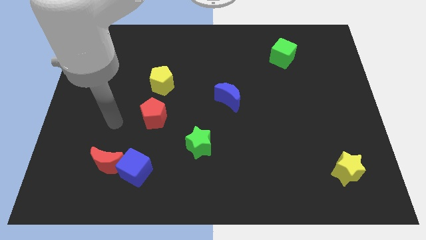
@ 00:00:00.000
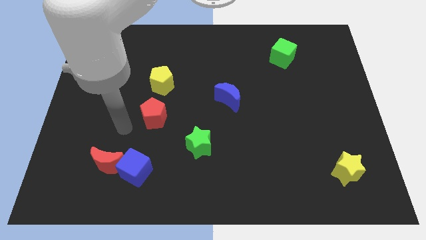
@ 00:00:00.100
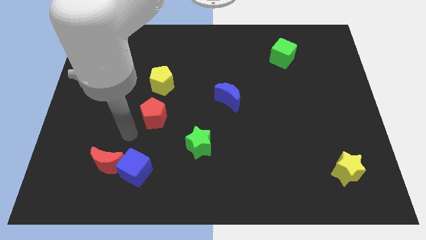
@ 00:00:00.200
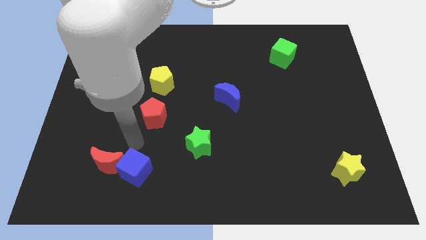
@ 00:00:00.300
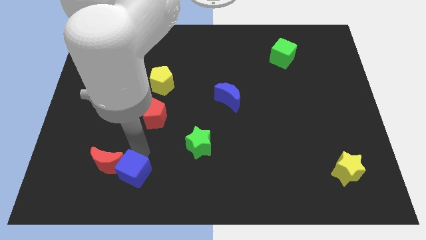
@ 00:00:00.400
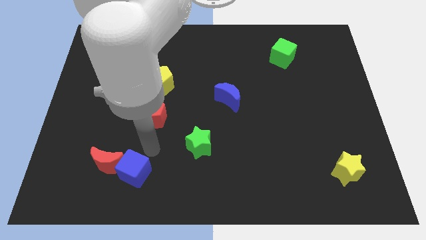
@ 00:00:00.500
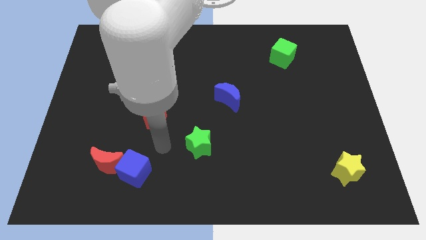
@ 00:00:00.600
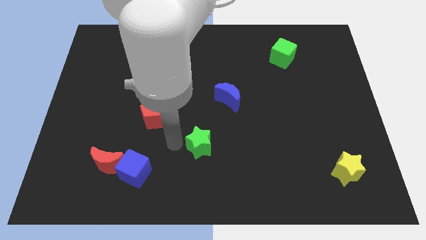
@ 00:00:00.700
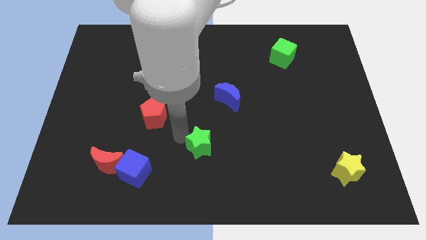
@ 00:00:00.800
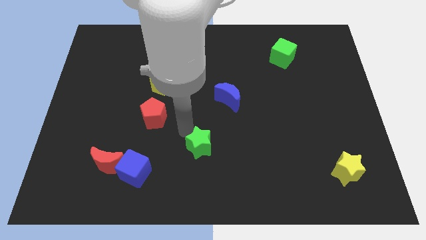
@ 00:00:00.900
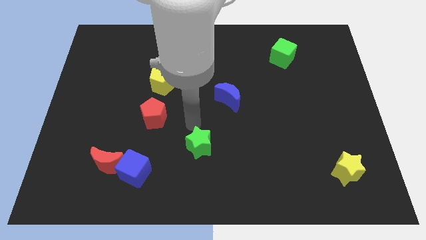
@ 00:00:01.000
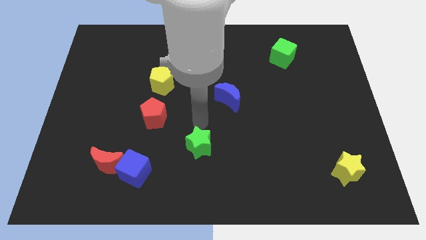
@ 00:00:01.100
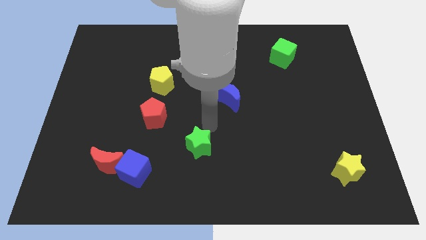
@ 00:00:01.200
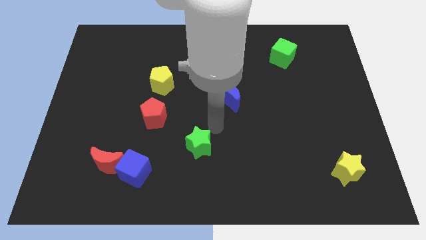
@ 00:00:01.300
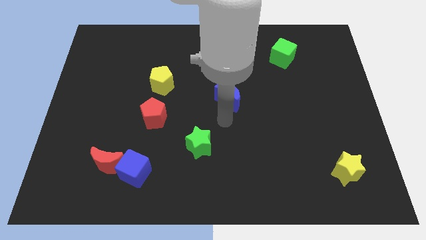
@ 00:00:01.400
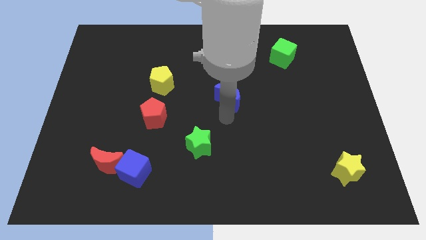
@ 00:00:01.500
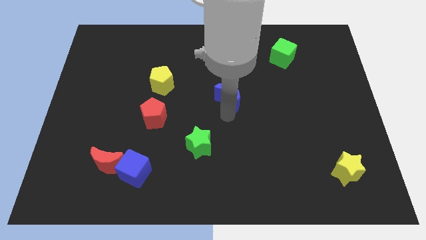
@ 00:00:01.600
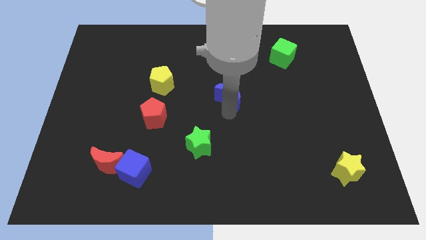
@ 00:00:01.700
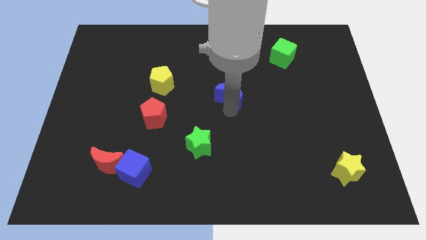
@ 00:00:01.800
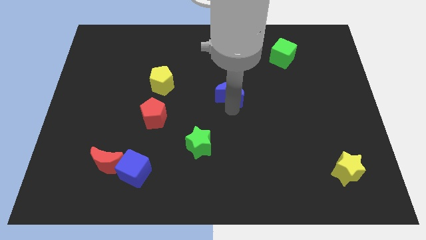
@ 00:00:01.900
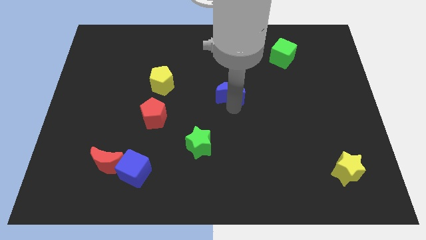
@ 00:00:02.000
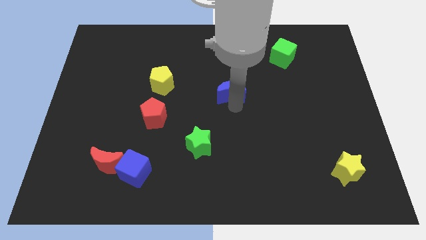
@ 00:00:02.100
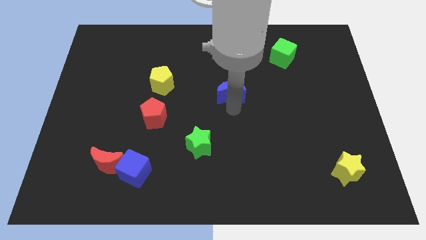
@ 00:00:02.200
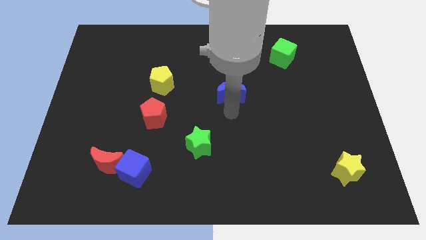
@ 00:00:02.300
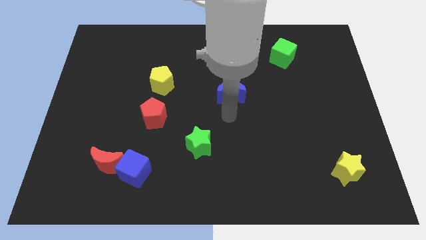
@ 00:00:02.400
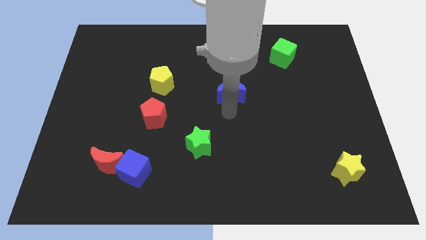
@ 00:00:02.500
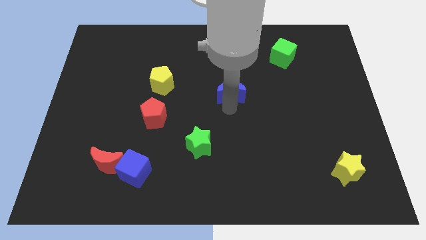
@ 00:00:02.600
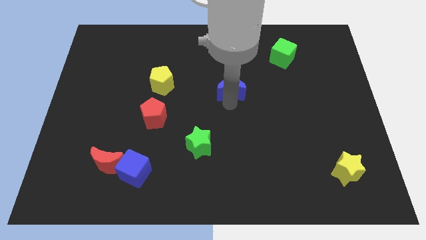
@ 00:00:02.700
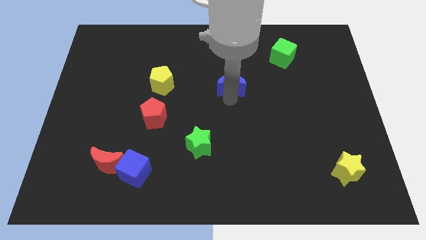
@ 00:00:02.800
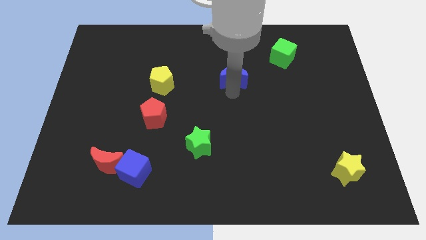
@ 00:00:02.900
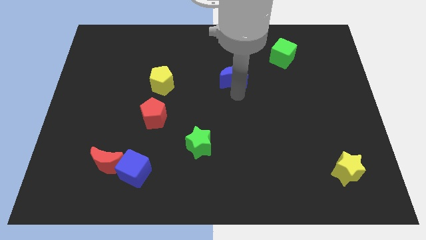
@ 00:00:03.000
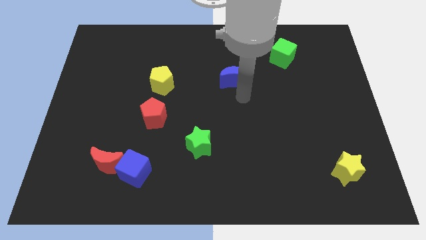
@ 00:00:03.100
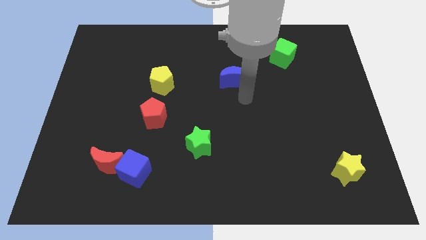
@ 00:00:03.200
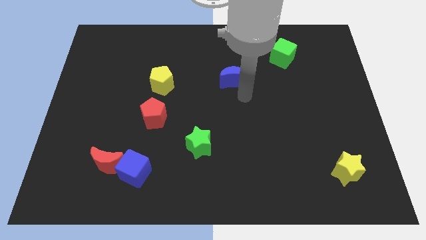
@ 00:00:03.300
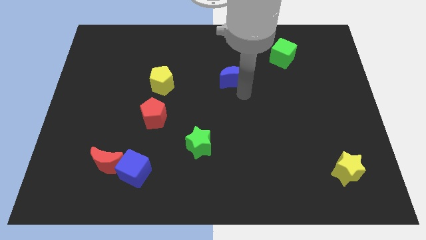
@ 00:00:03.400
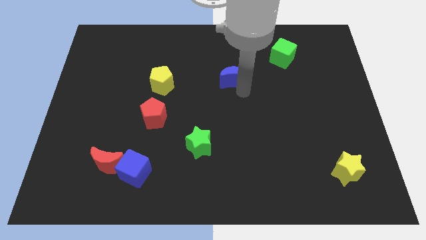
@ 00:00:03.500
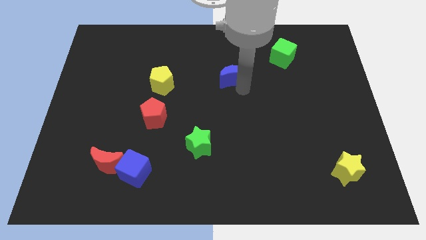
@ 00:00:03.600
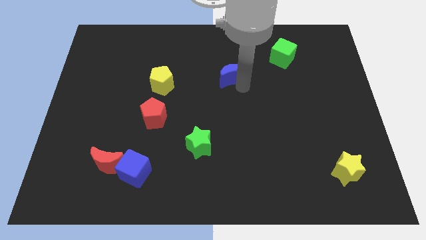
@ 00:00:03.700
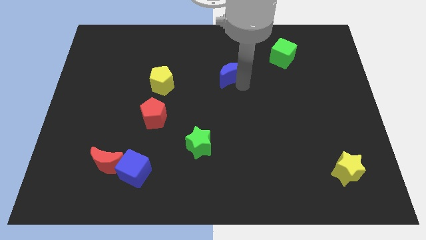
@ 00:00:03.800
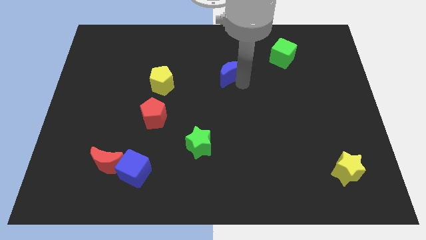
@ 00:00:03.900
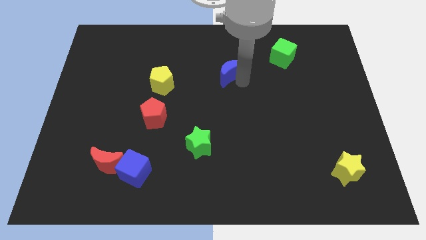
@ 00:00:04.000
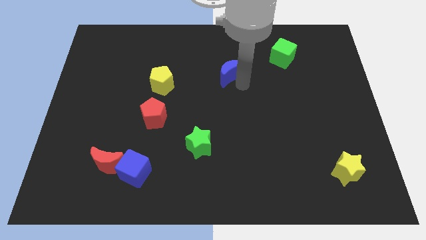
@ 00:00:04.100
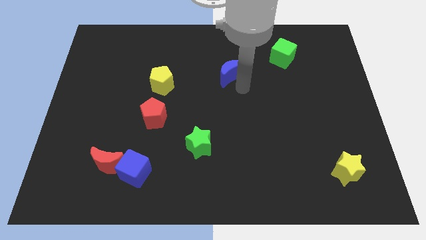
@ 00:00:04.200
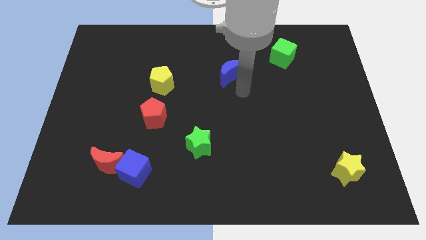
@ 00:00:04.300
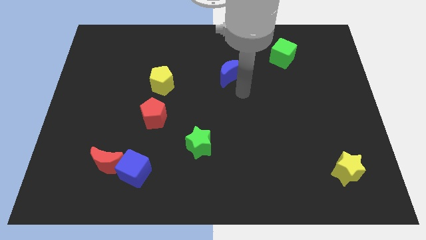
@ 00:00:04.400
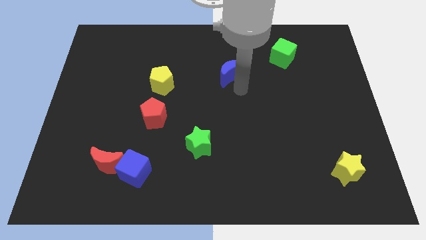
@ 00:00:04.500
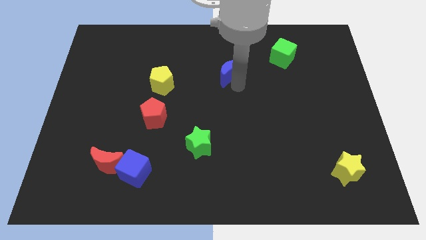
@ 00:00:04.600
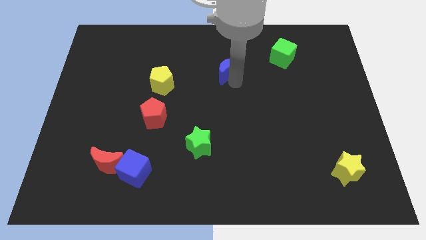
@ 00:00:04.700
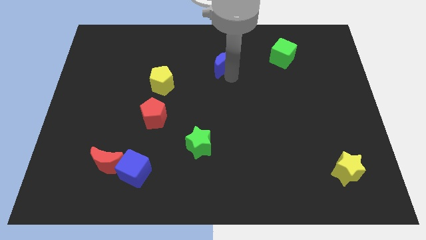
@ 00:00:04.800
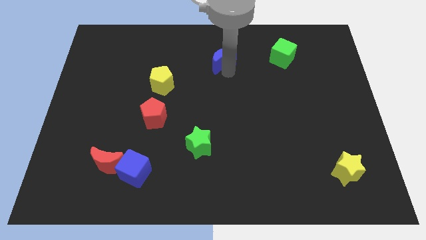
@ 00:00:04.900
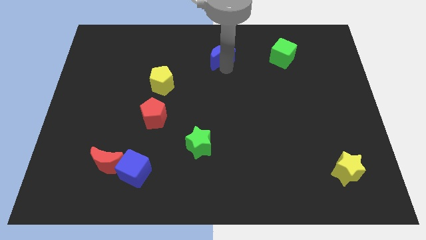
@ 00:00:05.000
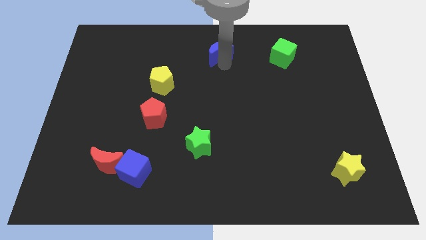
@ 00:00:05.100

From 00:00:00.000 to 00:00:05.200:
move the blue moon to the towards your base
